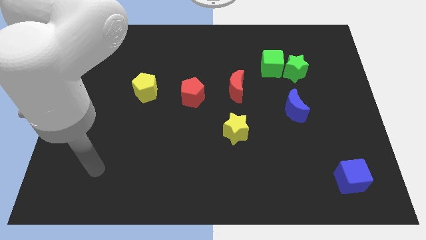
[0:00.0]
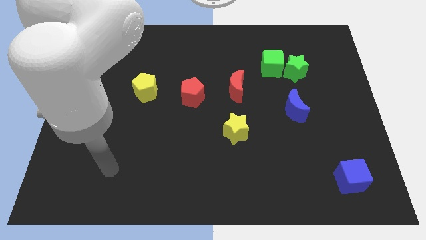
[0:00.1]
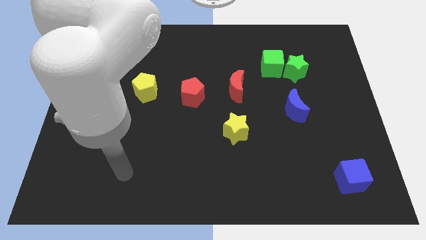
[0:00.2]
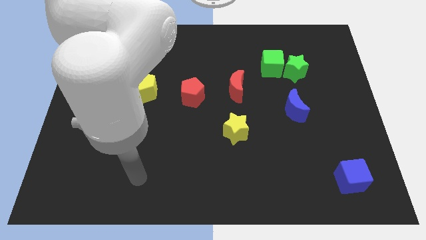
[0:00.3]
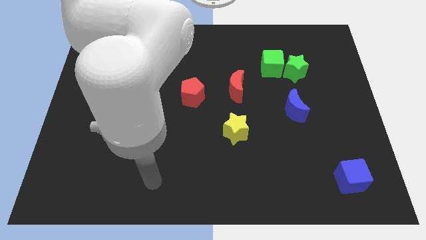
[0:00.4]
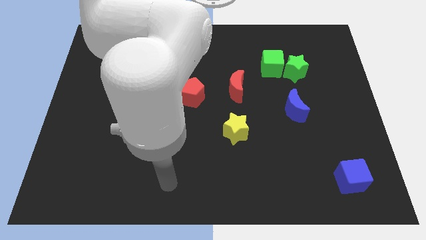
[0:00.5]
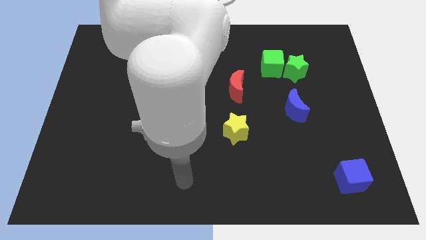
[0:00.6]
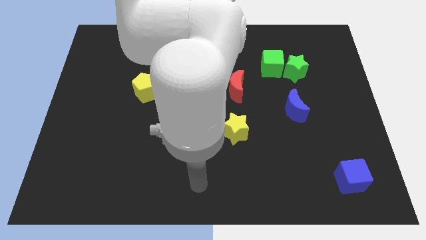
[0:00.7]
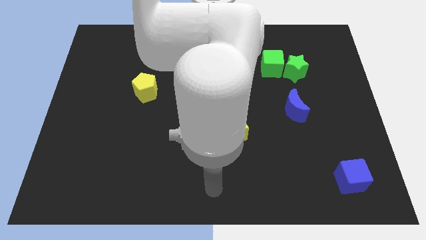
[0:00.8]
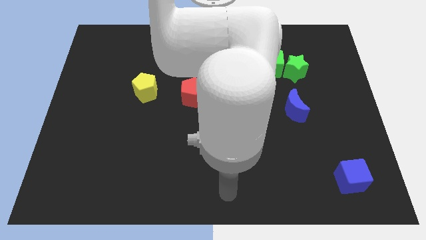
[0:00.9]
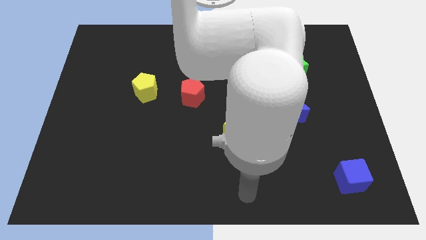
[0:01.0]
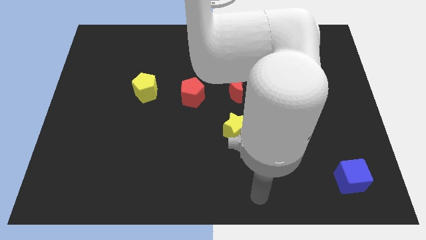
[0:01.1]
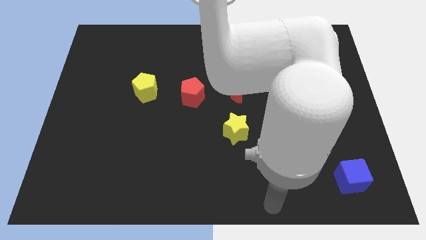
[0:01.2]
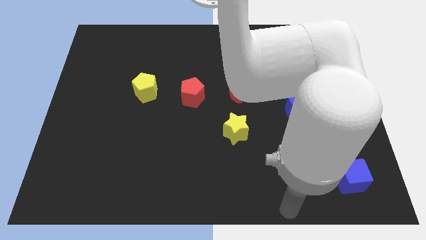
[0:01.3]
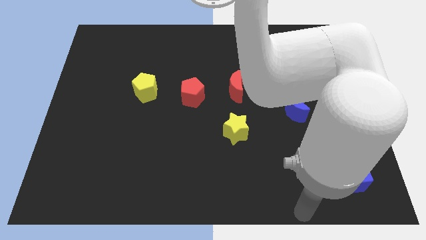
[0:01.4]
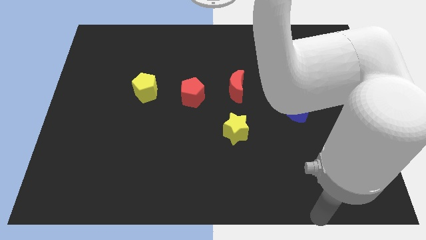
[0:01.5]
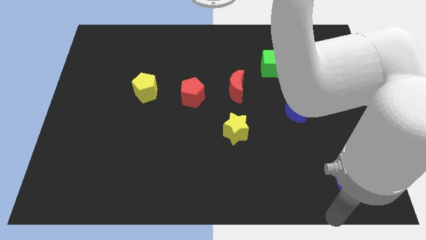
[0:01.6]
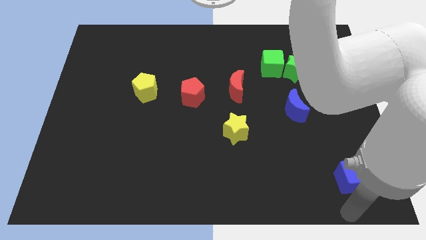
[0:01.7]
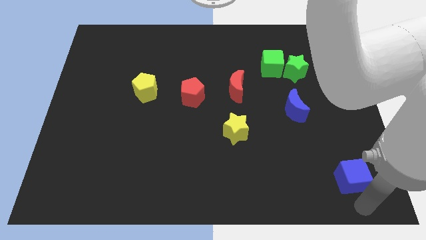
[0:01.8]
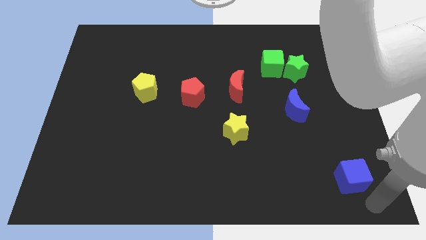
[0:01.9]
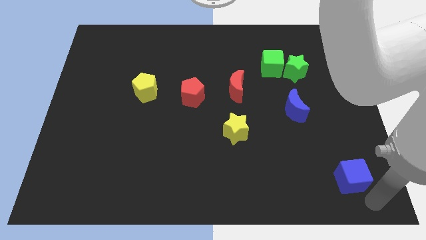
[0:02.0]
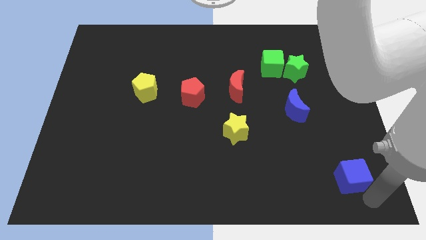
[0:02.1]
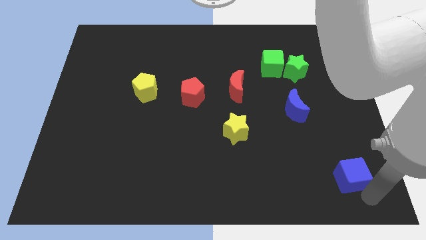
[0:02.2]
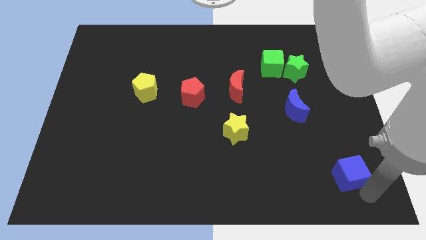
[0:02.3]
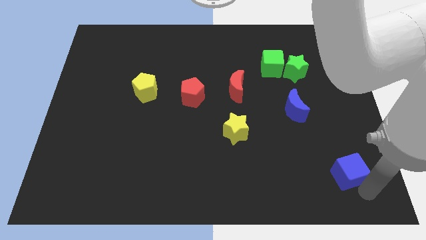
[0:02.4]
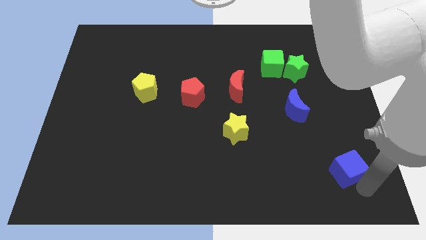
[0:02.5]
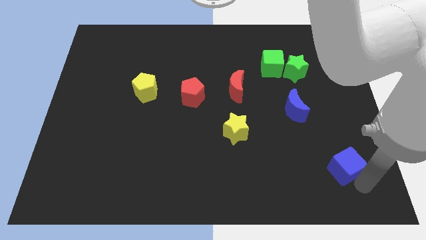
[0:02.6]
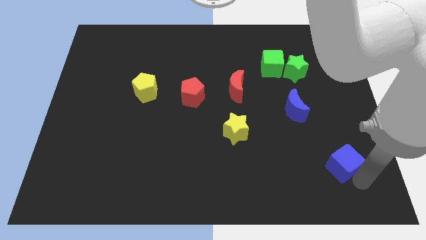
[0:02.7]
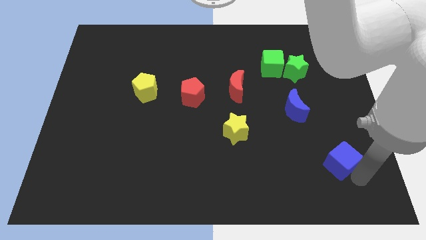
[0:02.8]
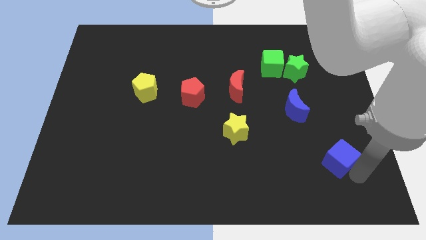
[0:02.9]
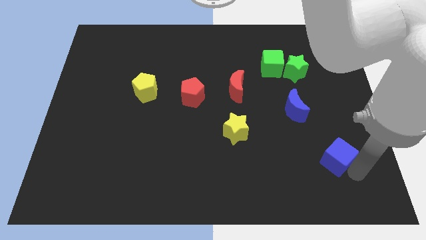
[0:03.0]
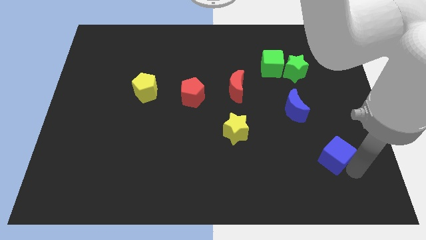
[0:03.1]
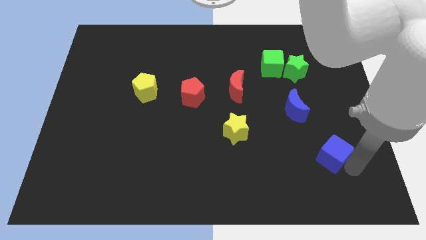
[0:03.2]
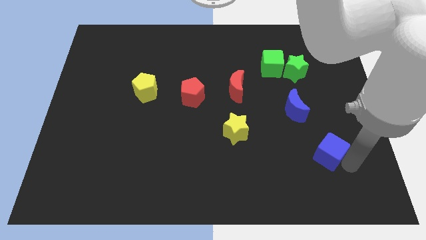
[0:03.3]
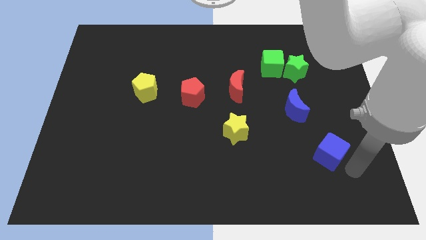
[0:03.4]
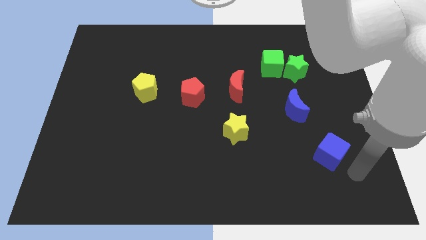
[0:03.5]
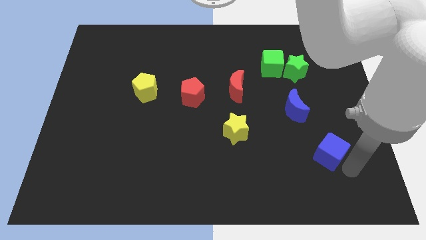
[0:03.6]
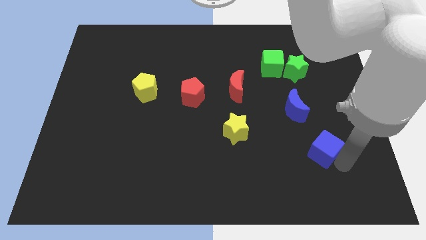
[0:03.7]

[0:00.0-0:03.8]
slide the blue cube a little up and to the left

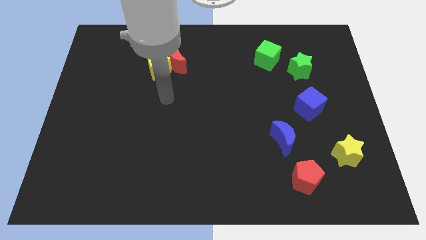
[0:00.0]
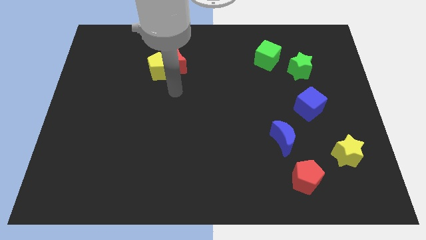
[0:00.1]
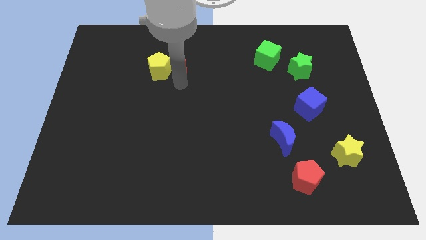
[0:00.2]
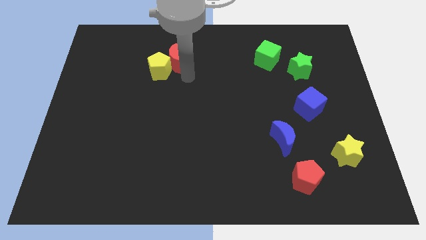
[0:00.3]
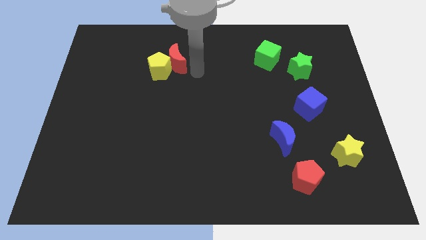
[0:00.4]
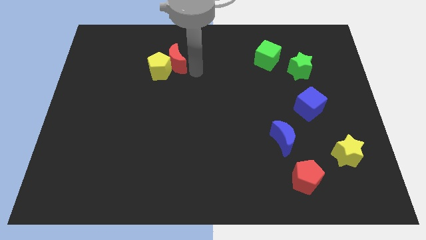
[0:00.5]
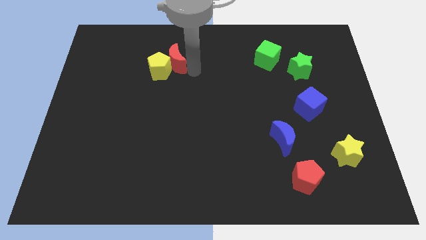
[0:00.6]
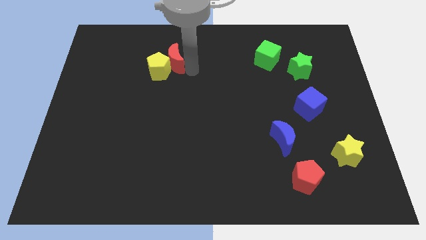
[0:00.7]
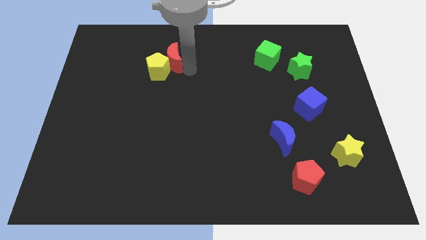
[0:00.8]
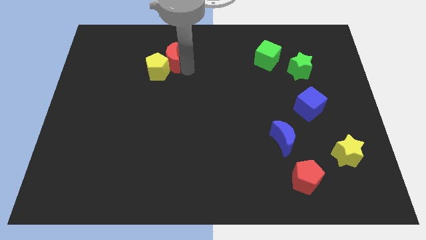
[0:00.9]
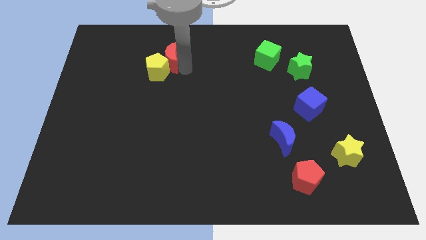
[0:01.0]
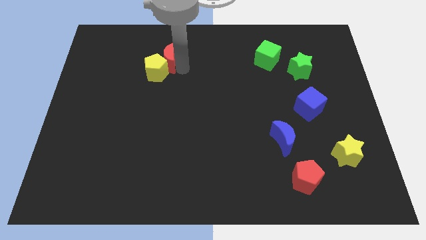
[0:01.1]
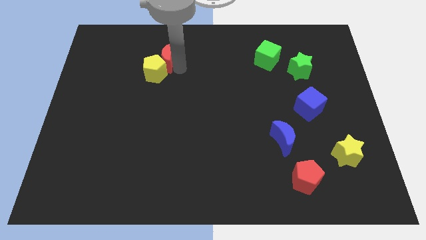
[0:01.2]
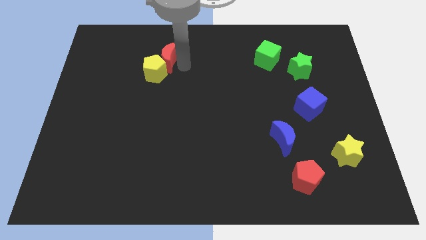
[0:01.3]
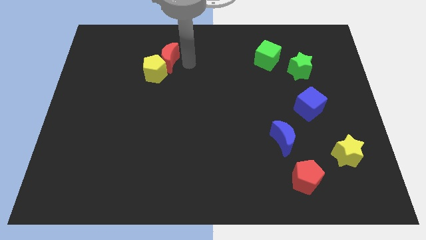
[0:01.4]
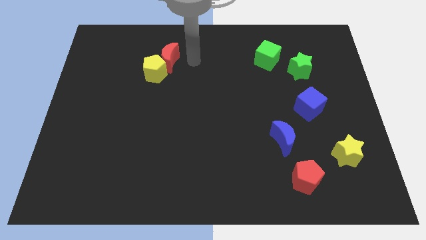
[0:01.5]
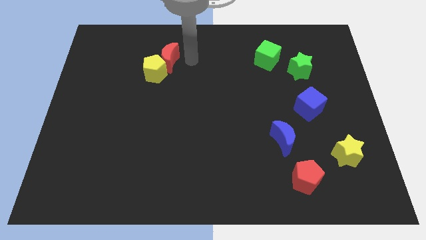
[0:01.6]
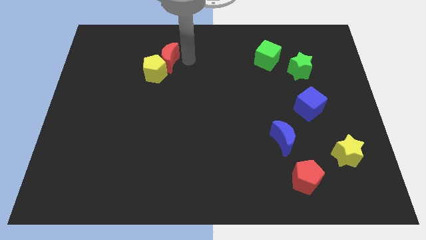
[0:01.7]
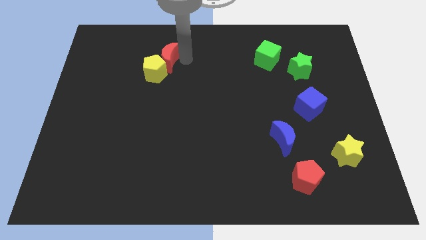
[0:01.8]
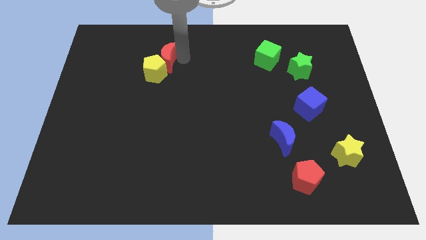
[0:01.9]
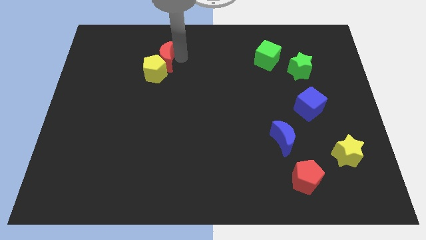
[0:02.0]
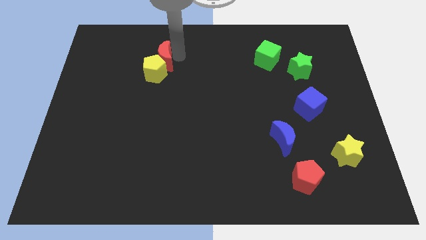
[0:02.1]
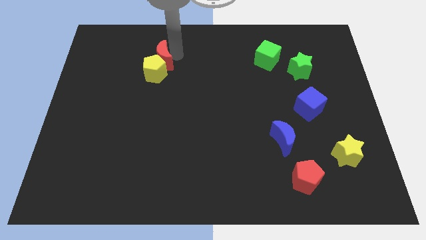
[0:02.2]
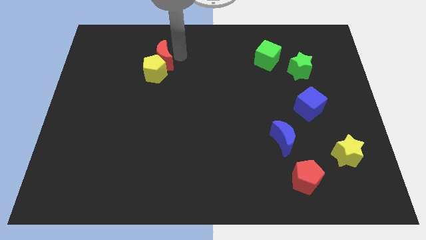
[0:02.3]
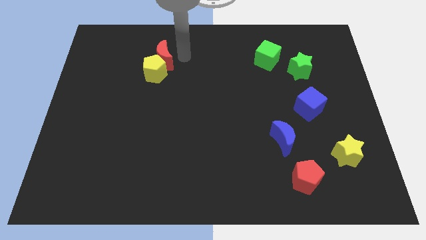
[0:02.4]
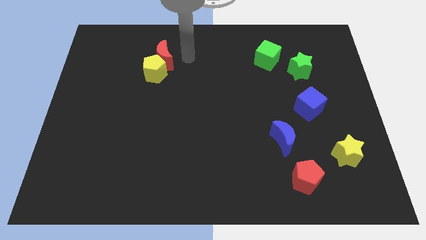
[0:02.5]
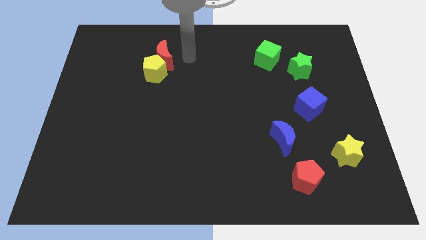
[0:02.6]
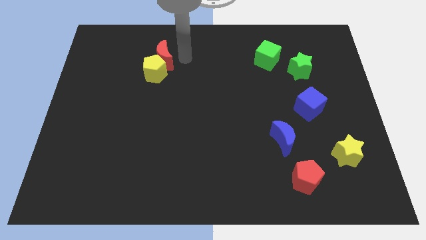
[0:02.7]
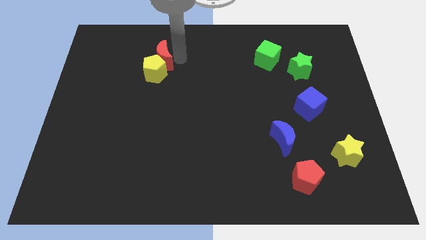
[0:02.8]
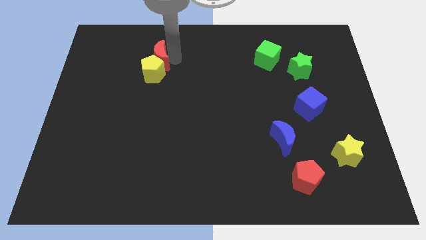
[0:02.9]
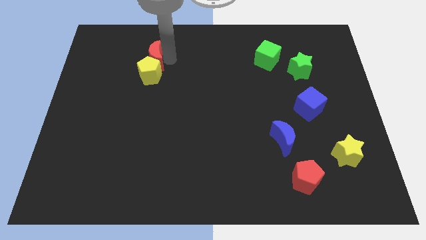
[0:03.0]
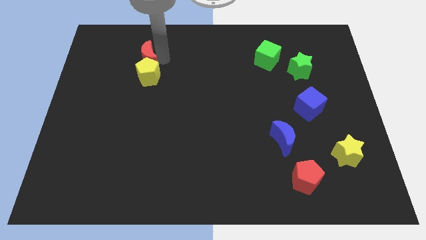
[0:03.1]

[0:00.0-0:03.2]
slide the red moon a little bit left

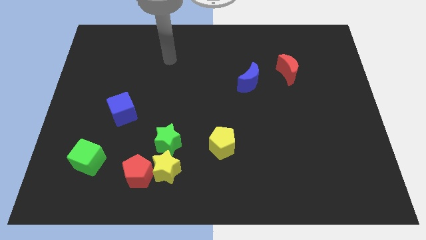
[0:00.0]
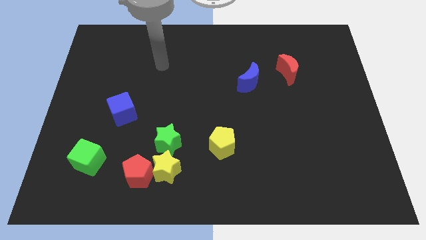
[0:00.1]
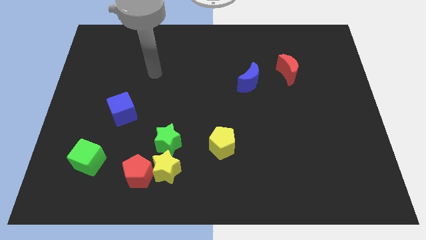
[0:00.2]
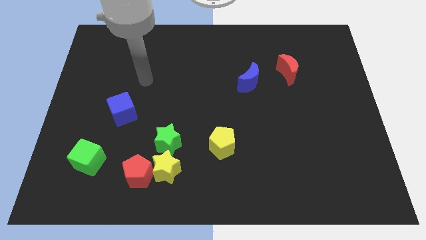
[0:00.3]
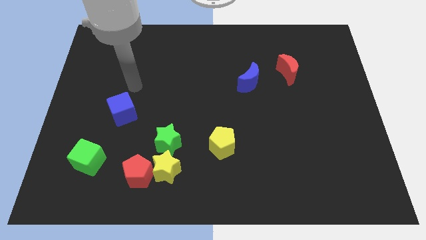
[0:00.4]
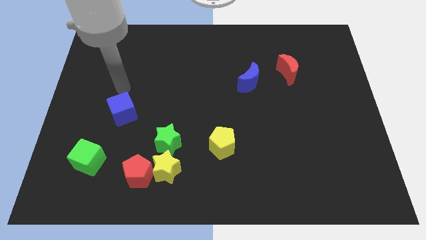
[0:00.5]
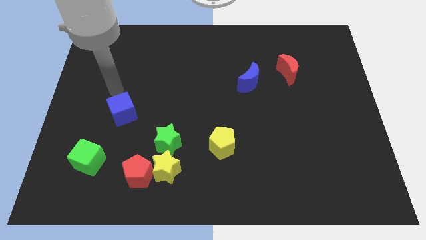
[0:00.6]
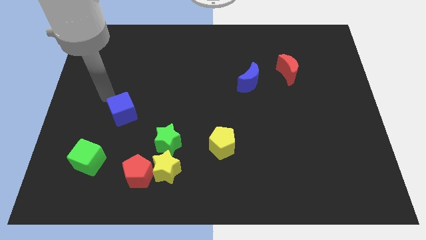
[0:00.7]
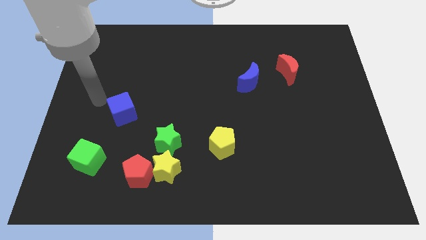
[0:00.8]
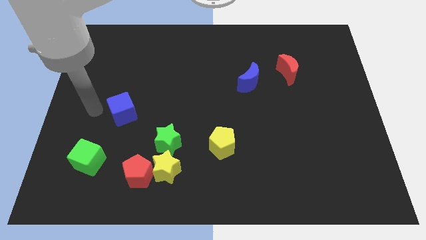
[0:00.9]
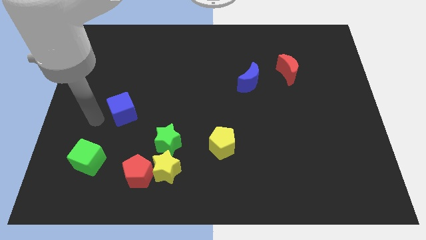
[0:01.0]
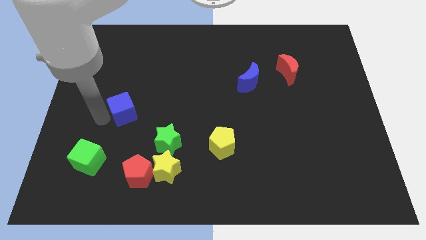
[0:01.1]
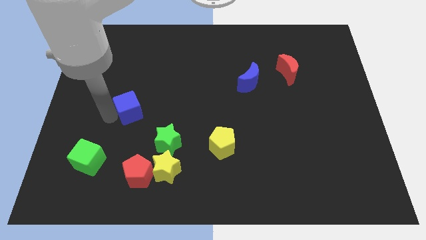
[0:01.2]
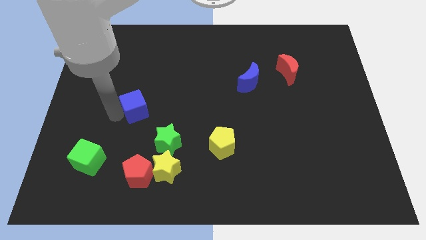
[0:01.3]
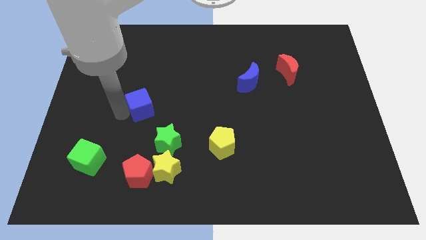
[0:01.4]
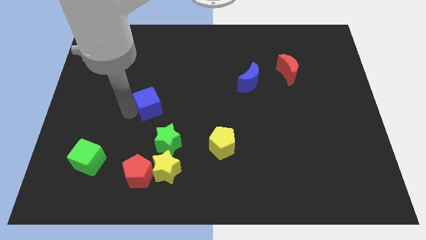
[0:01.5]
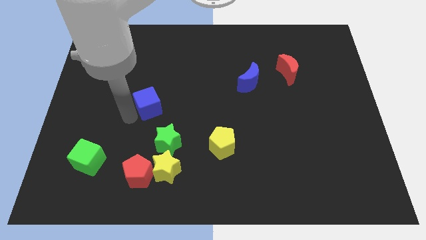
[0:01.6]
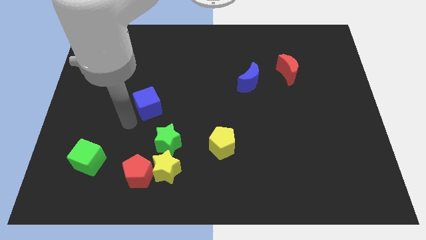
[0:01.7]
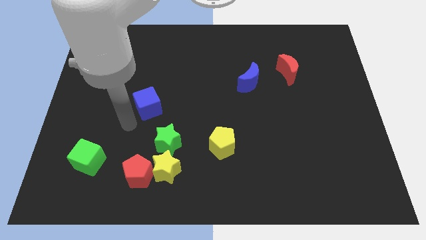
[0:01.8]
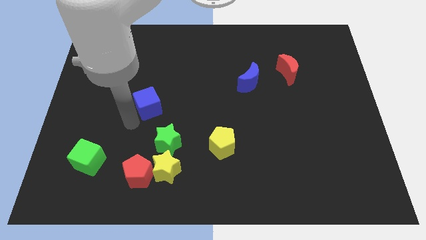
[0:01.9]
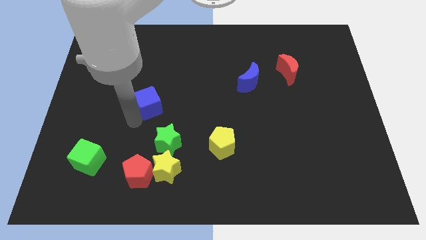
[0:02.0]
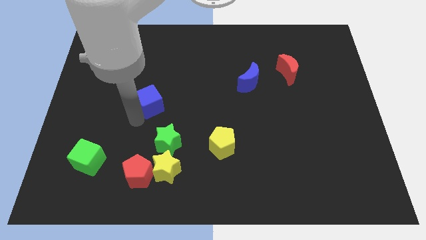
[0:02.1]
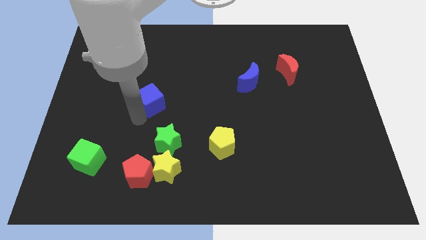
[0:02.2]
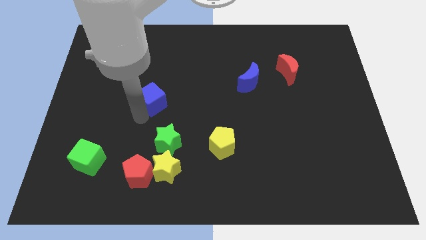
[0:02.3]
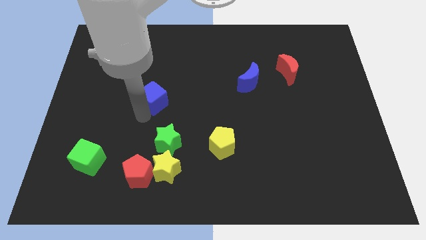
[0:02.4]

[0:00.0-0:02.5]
slightly slide the blue cube upwards and to the right
